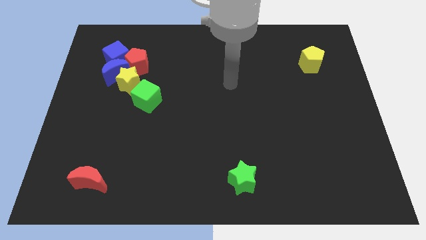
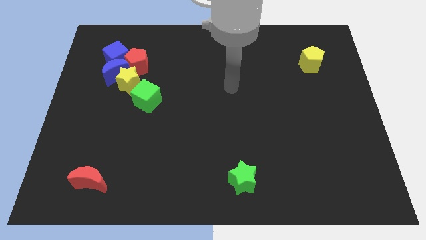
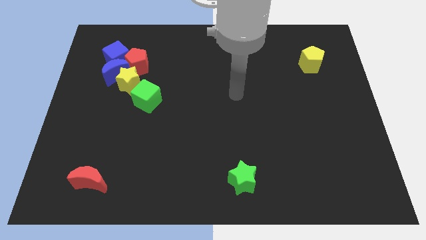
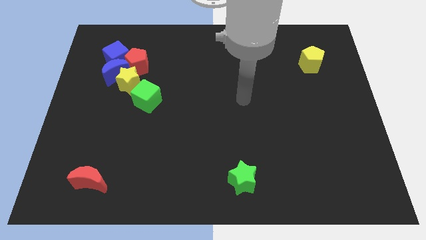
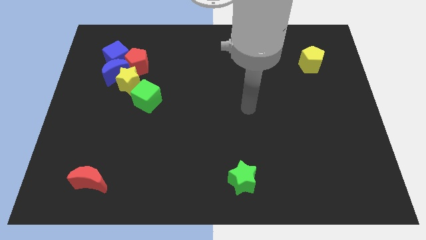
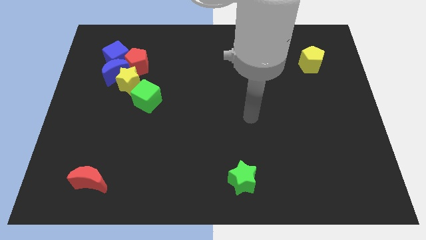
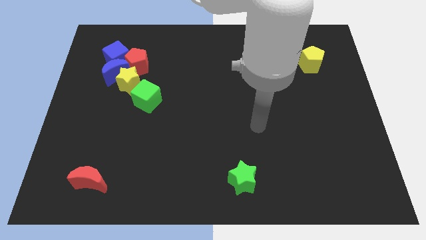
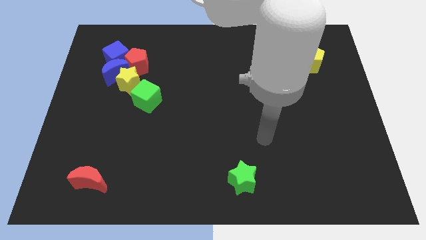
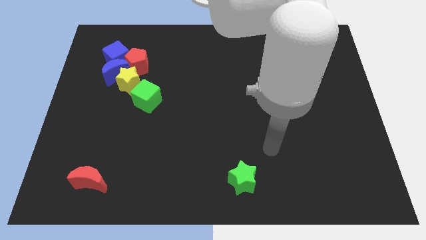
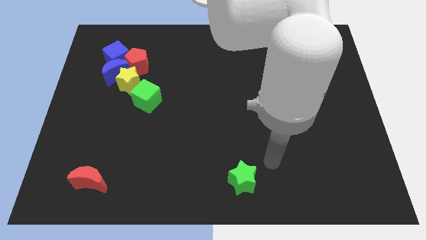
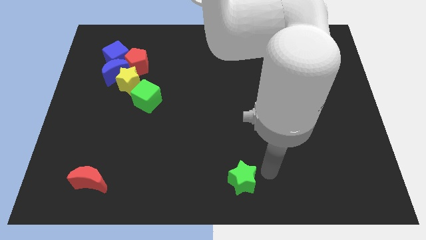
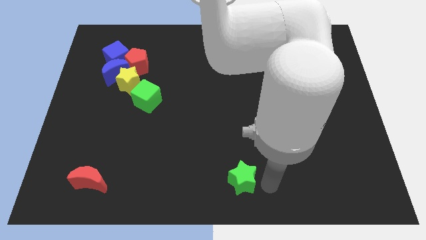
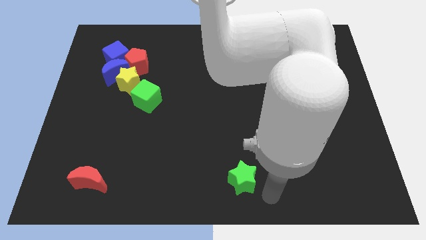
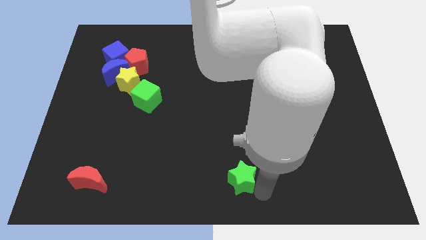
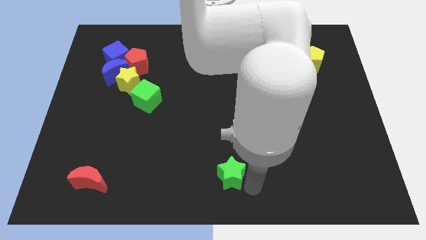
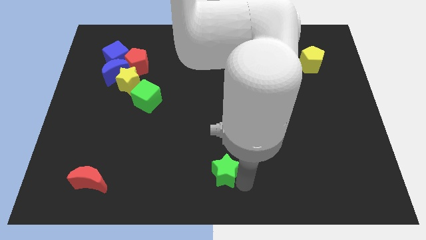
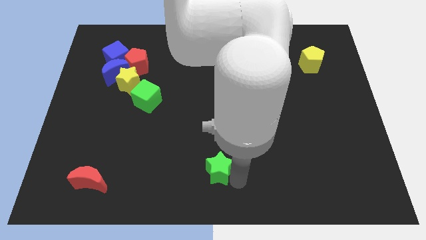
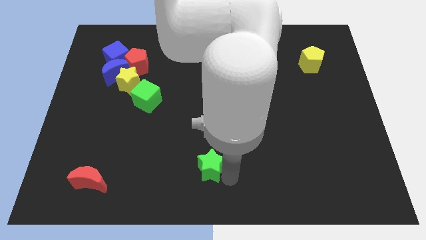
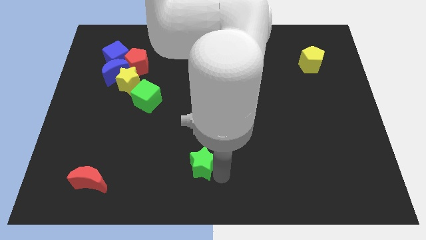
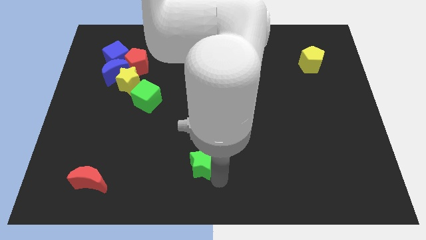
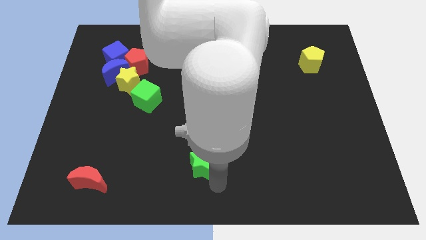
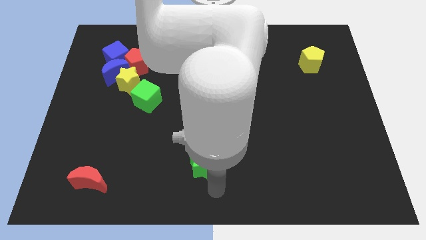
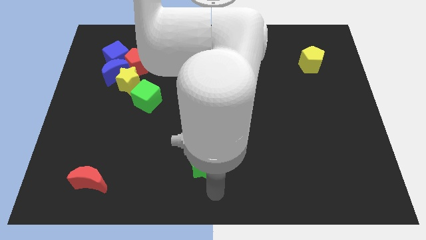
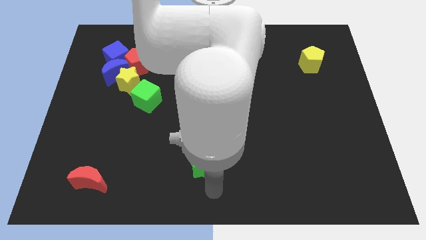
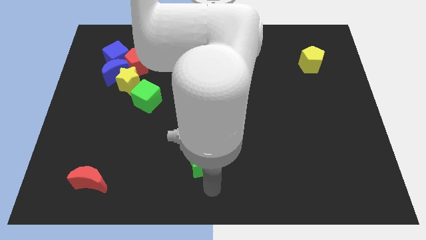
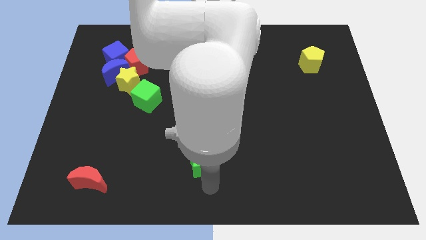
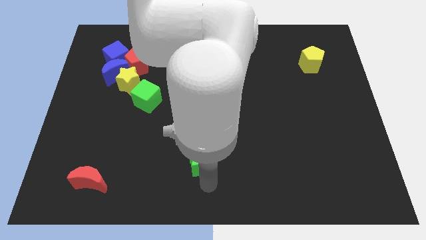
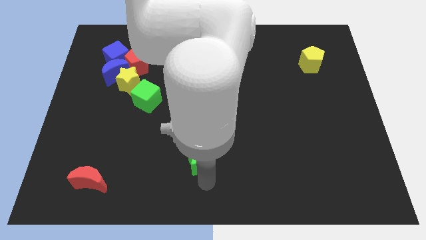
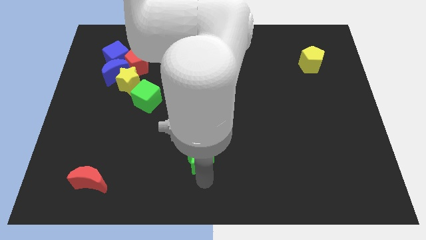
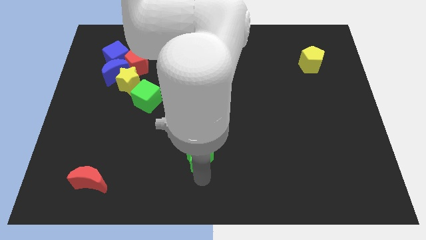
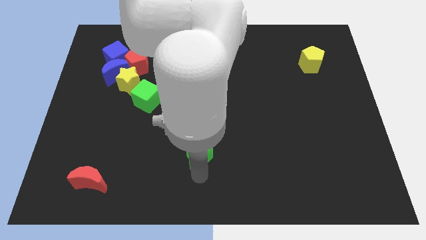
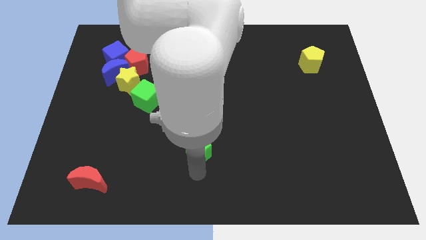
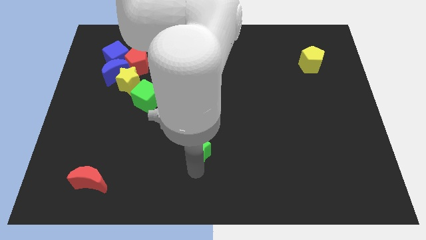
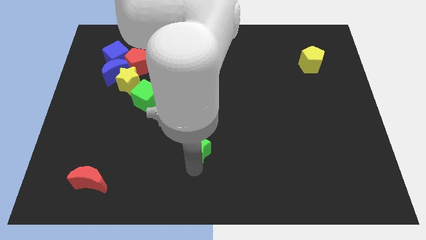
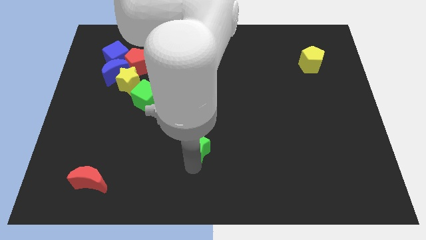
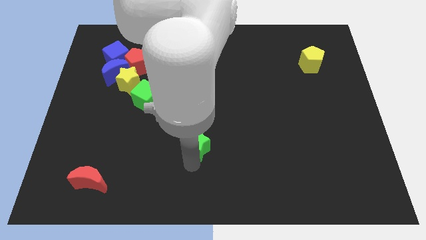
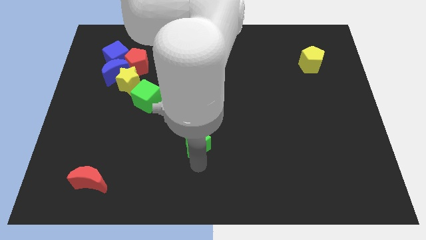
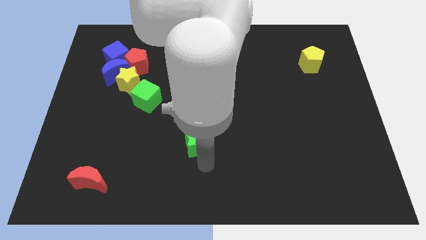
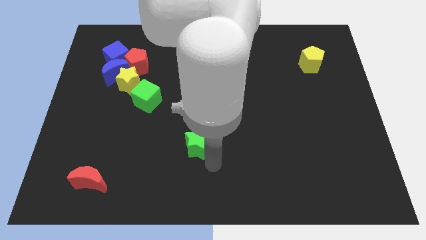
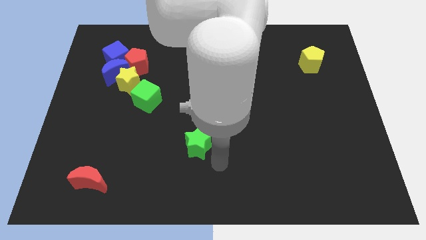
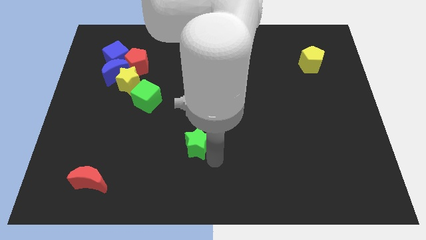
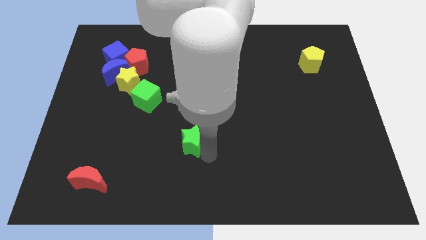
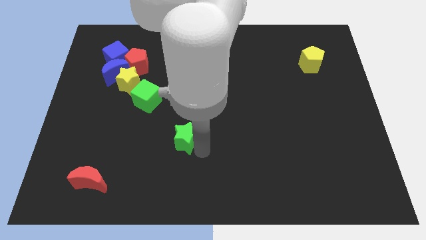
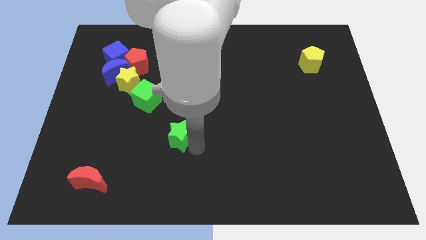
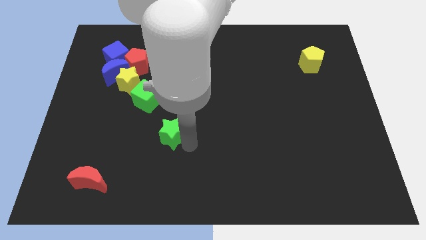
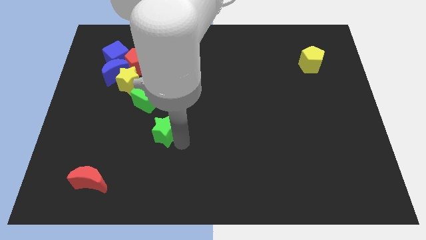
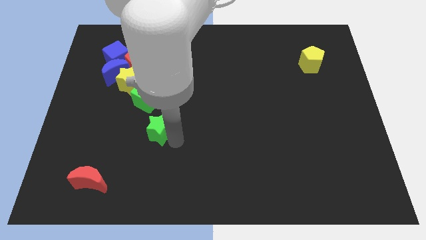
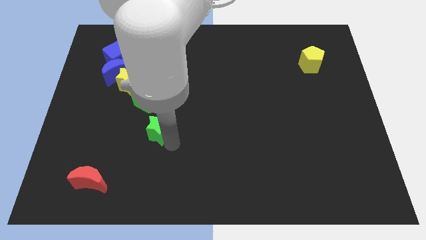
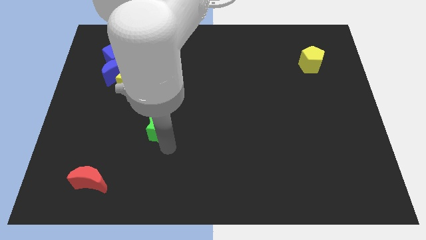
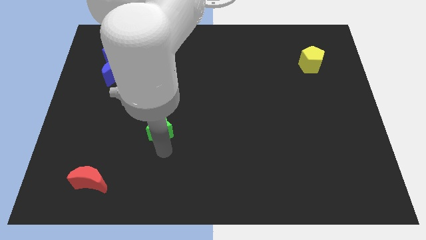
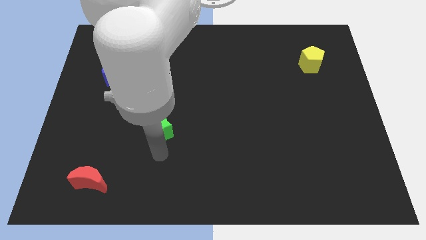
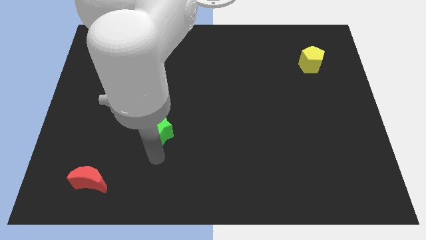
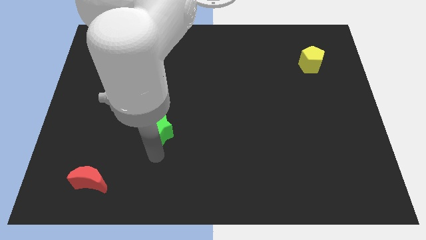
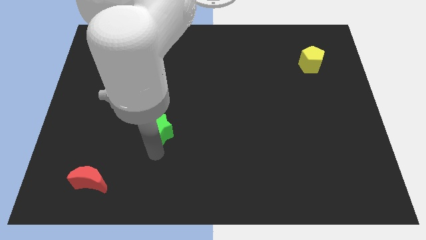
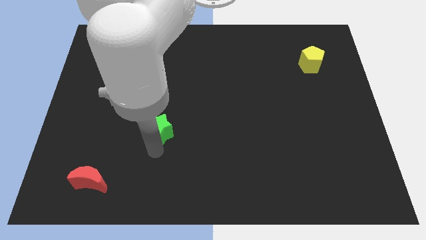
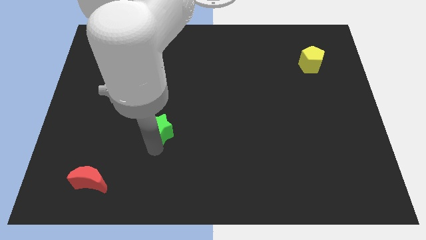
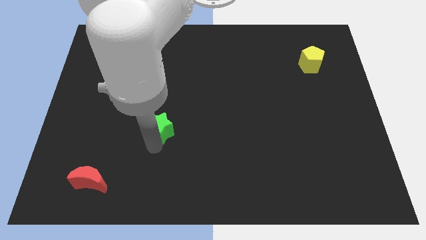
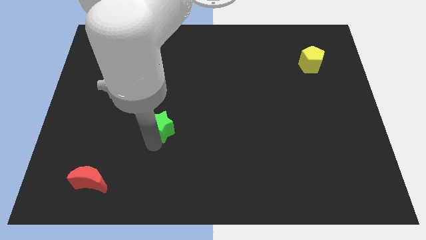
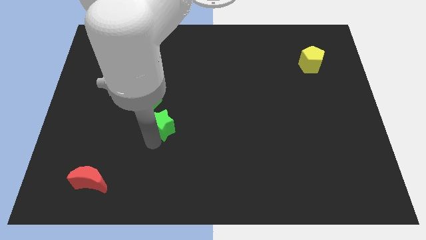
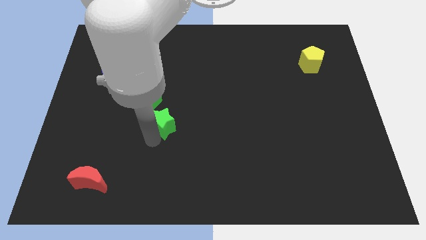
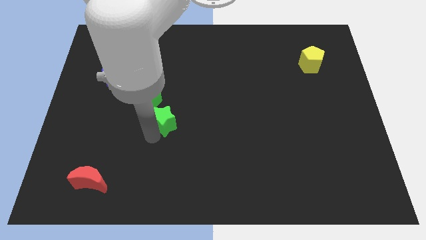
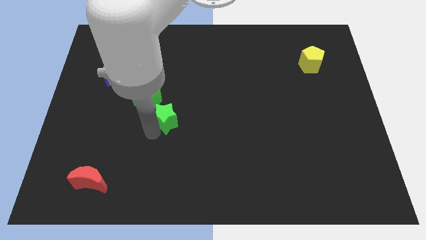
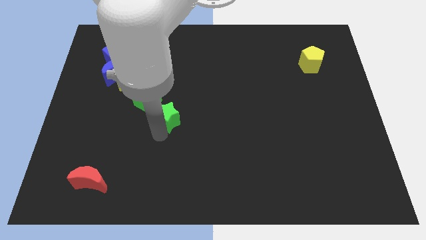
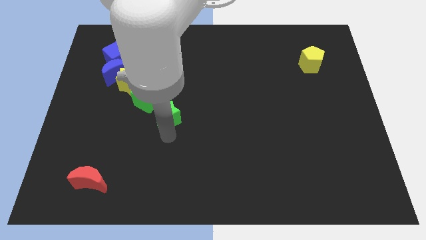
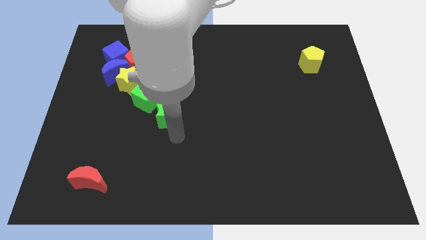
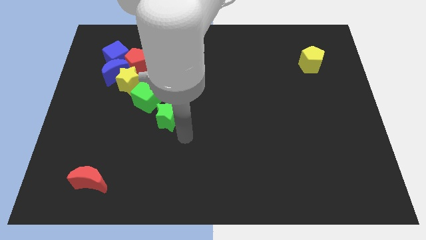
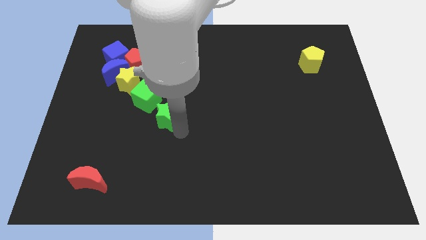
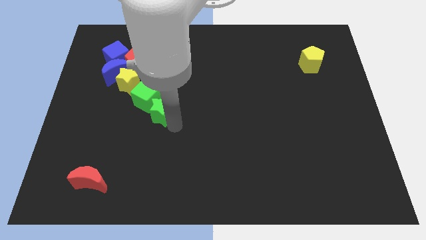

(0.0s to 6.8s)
slide the green star to the green cube

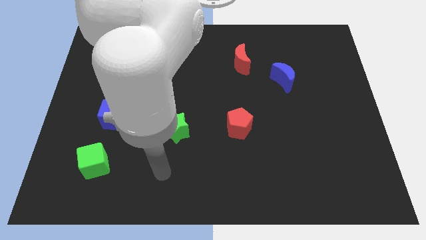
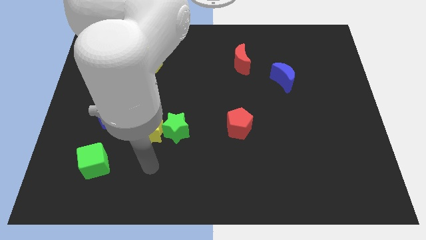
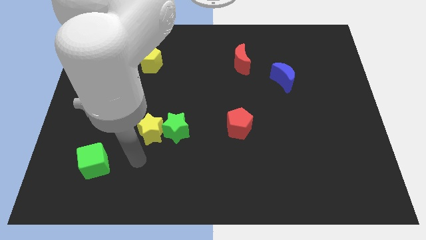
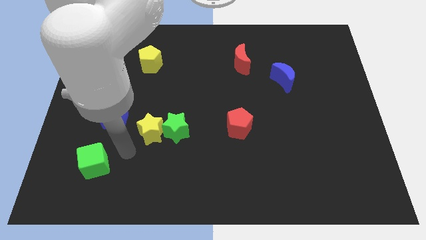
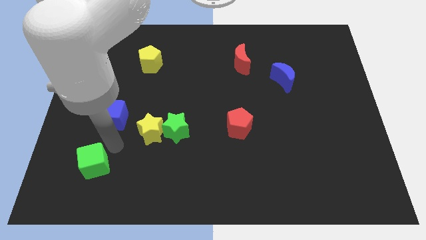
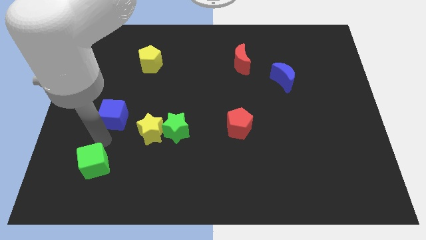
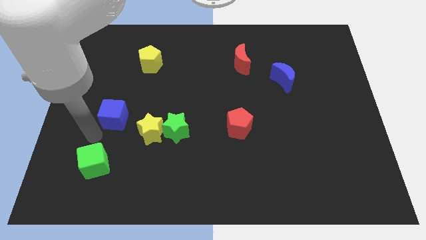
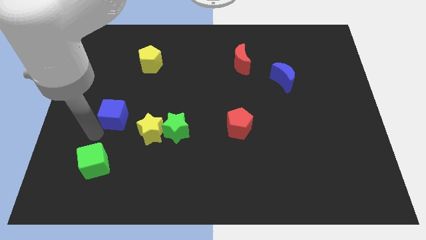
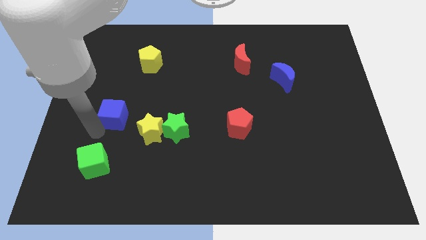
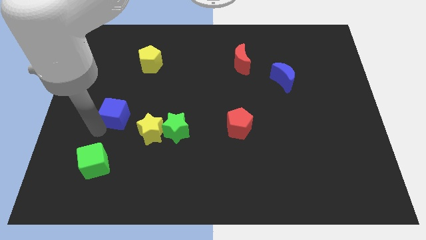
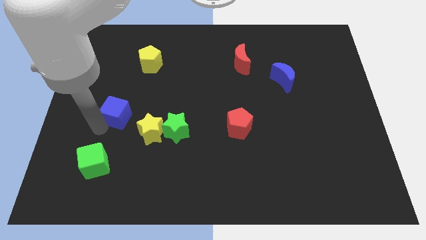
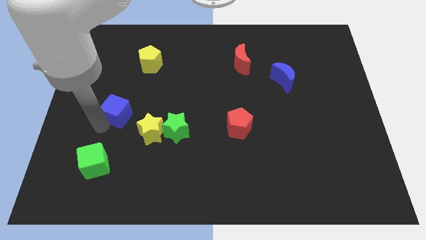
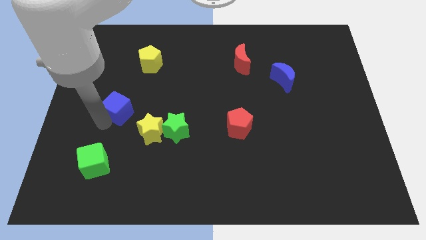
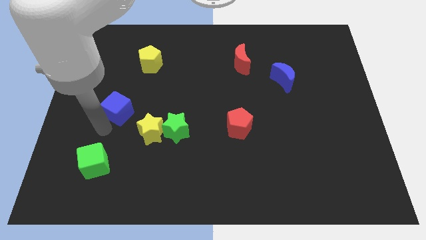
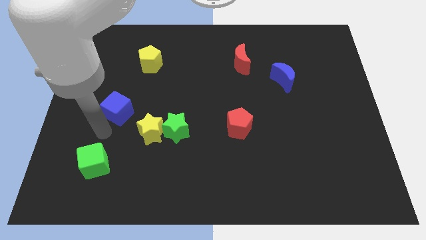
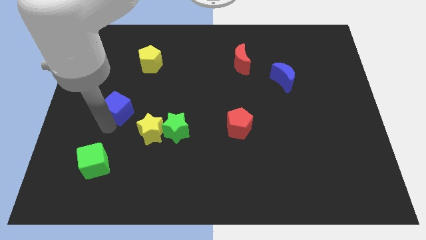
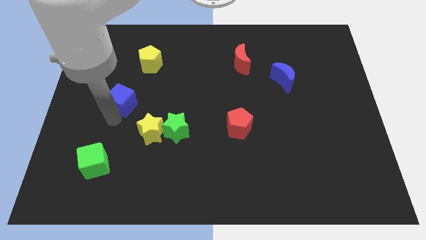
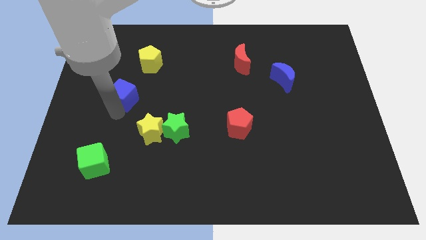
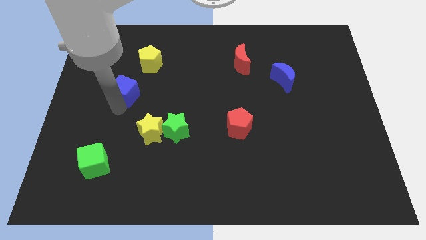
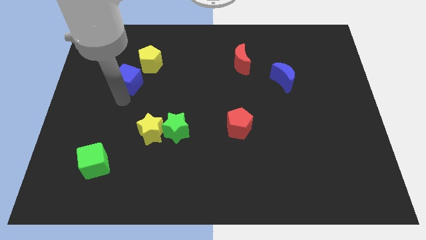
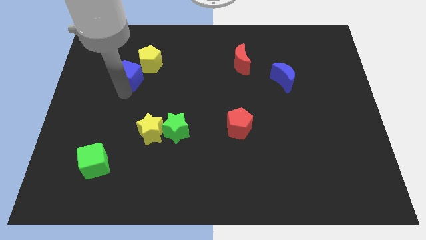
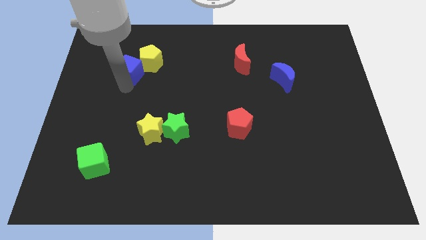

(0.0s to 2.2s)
push the blue cube towards the yellow pentagon
